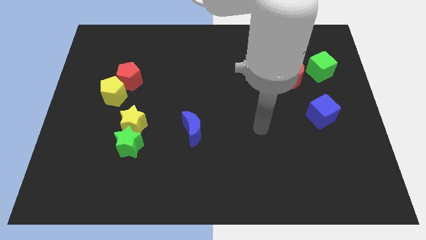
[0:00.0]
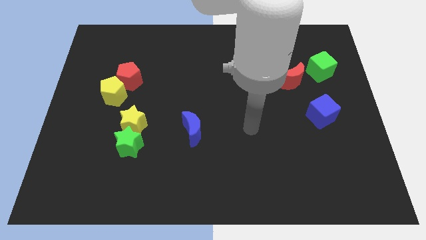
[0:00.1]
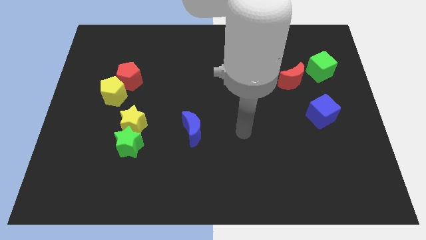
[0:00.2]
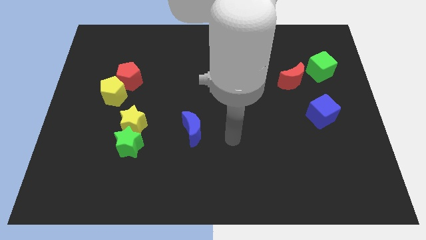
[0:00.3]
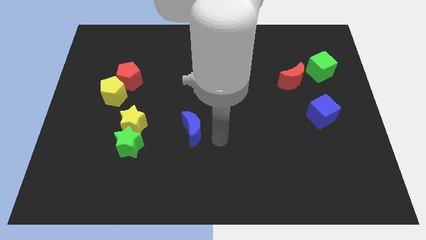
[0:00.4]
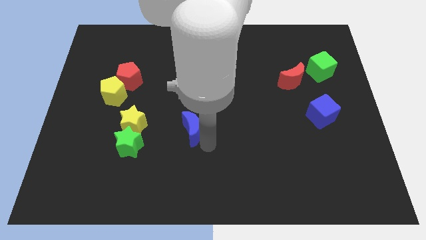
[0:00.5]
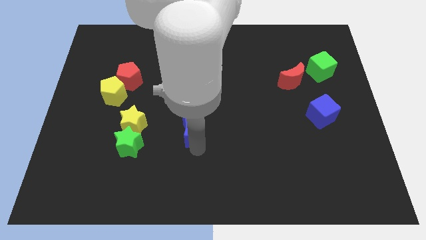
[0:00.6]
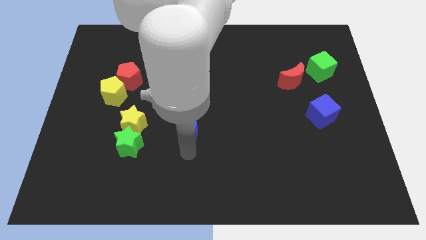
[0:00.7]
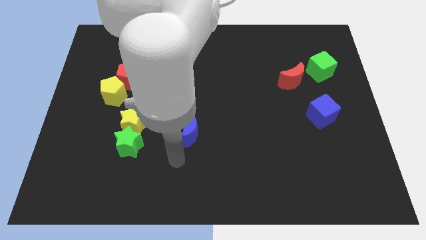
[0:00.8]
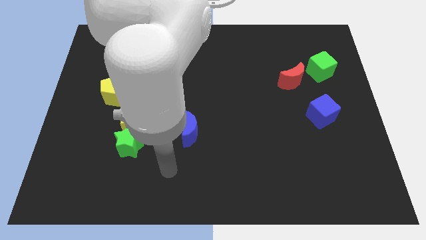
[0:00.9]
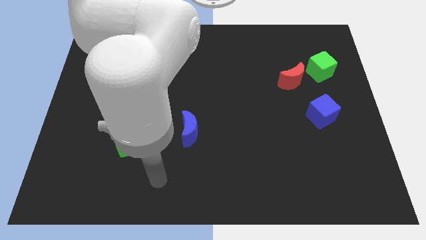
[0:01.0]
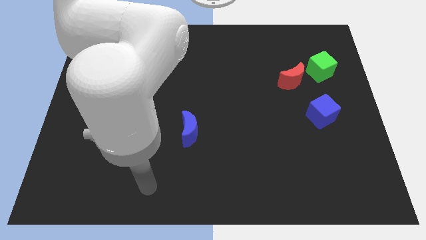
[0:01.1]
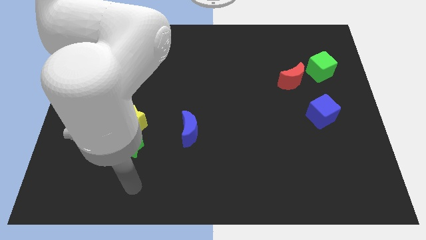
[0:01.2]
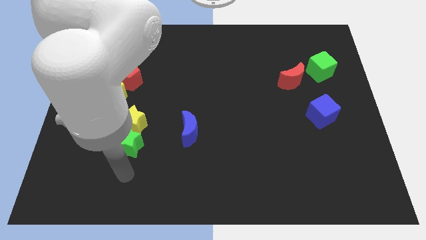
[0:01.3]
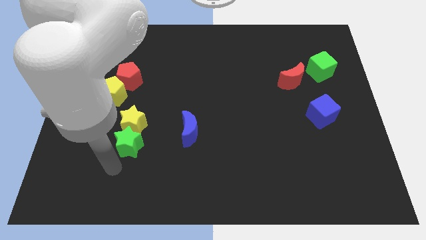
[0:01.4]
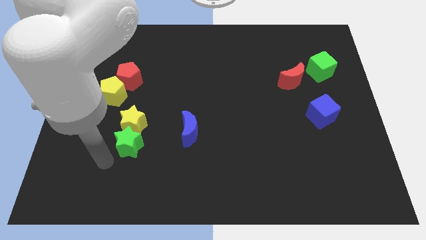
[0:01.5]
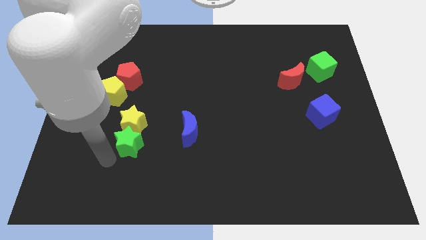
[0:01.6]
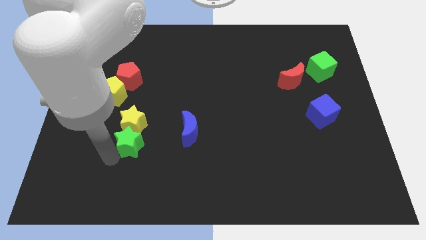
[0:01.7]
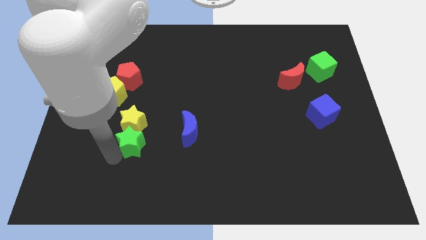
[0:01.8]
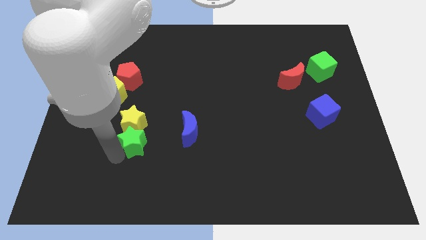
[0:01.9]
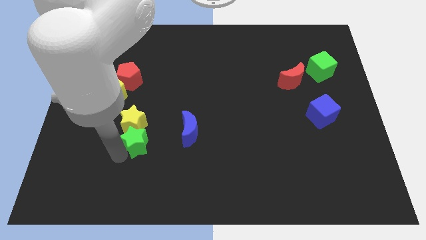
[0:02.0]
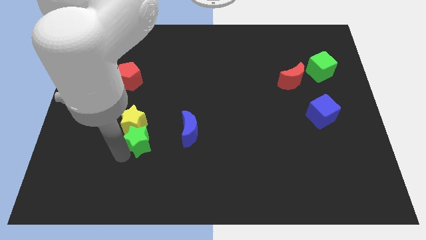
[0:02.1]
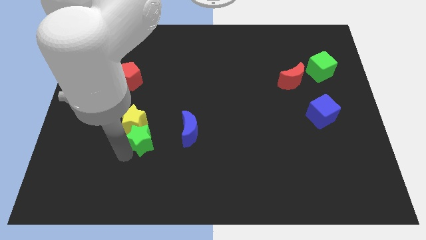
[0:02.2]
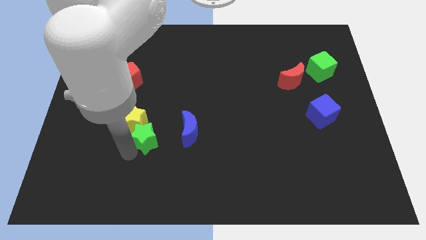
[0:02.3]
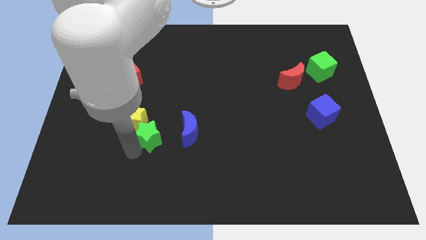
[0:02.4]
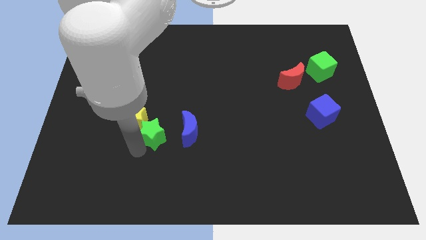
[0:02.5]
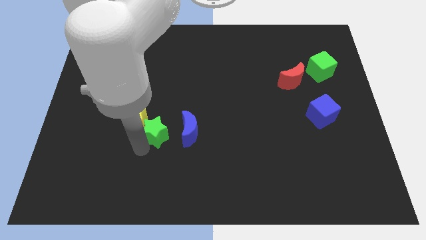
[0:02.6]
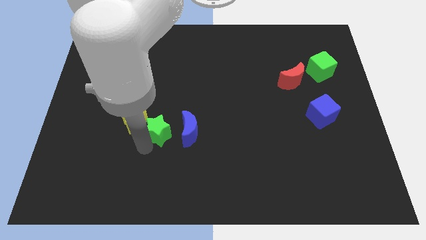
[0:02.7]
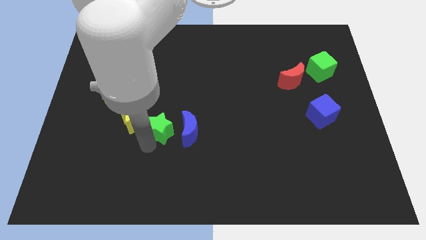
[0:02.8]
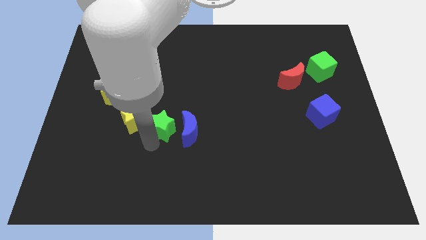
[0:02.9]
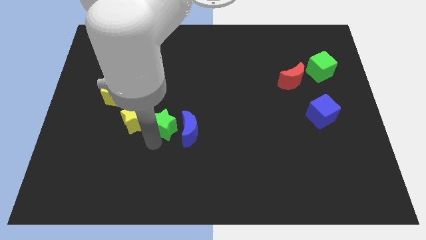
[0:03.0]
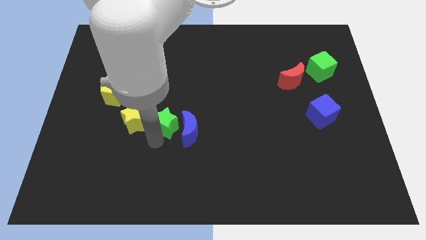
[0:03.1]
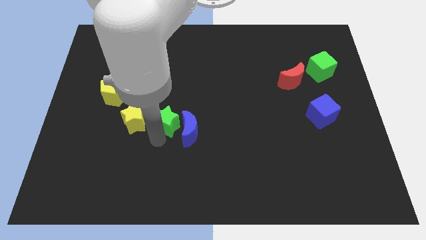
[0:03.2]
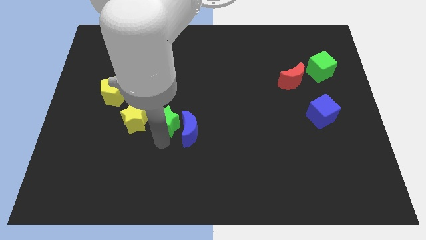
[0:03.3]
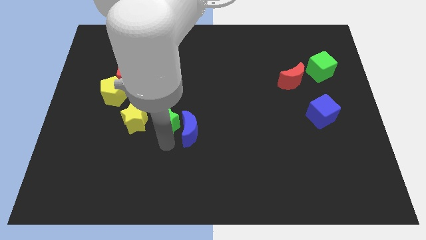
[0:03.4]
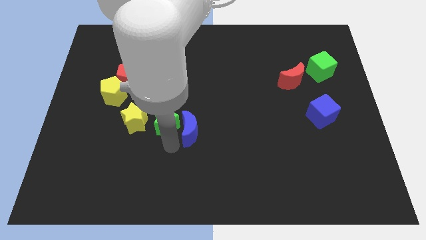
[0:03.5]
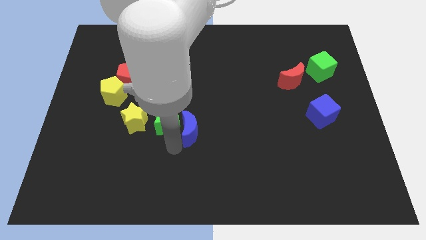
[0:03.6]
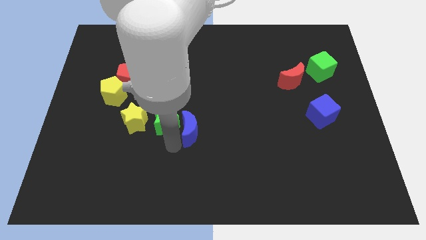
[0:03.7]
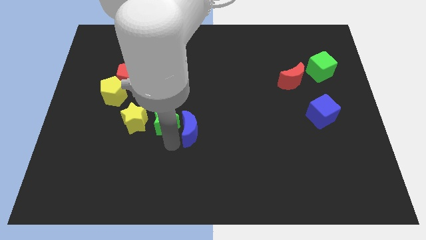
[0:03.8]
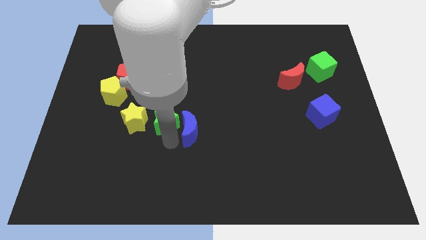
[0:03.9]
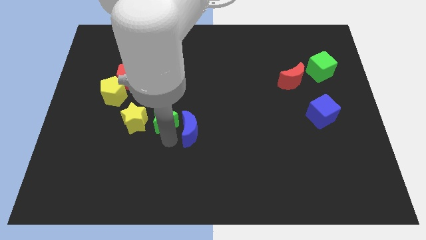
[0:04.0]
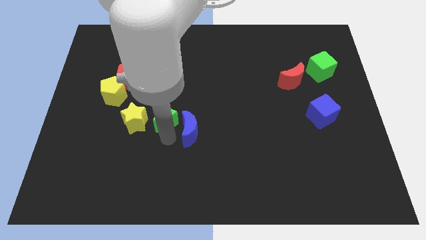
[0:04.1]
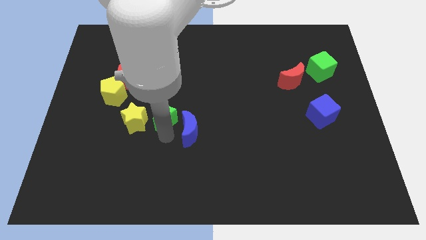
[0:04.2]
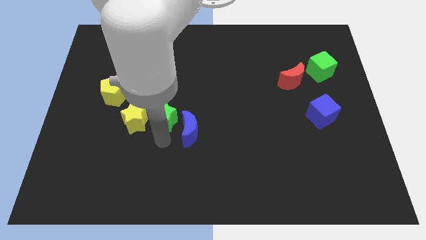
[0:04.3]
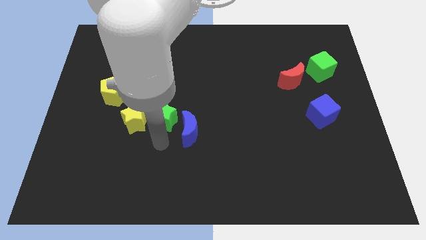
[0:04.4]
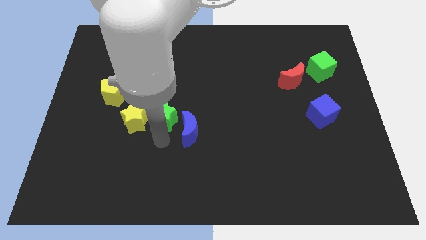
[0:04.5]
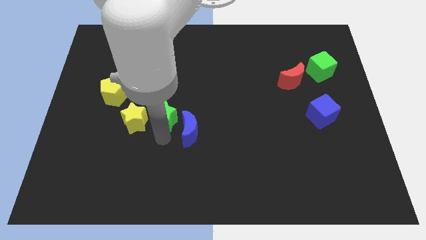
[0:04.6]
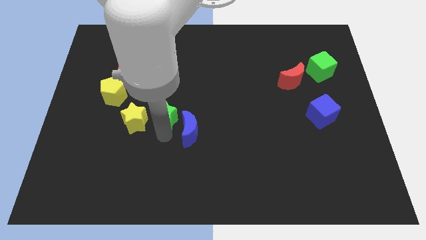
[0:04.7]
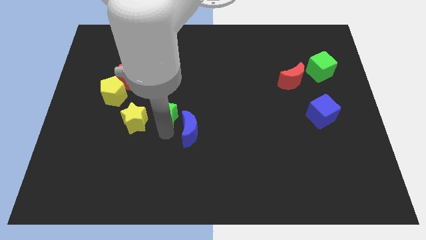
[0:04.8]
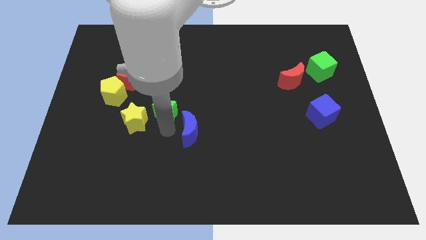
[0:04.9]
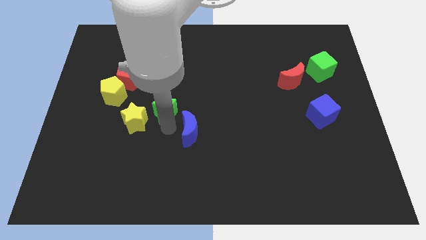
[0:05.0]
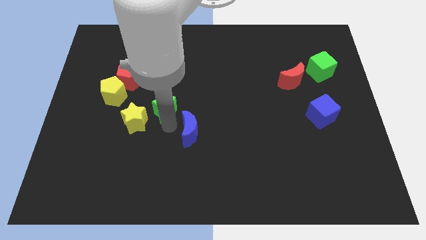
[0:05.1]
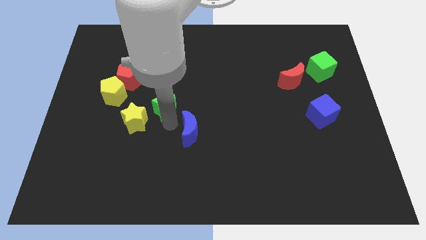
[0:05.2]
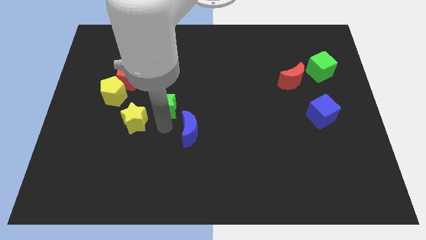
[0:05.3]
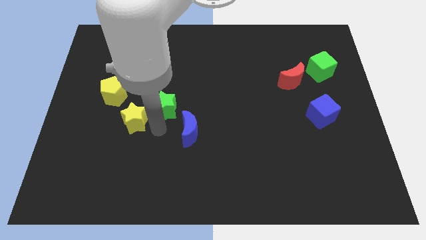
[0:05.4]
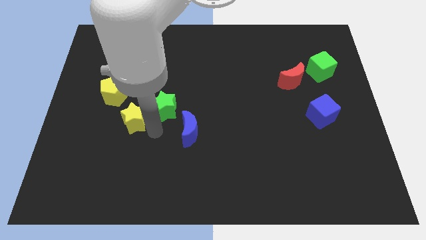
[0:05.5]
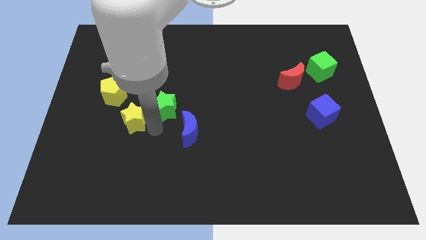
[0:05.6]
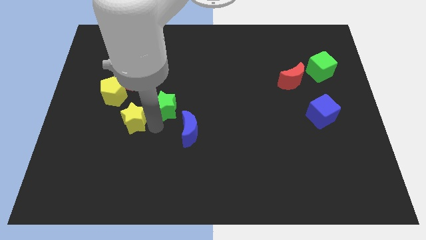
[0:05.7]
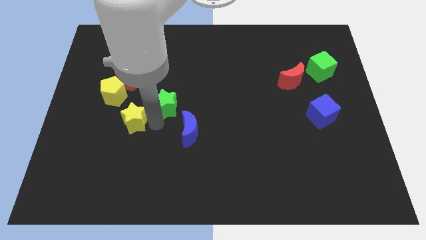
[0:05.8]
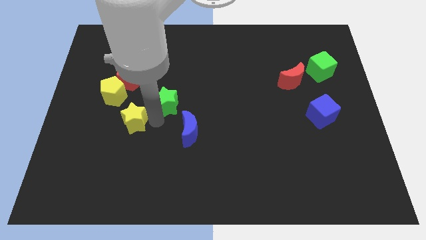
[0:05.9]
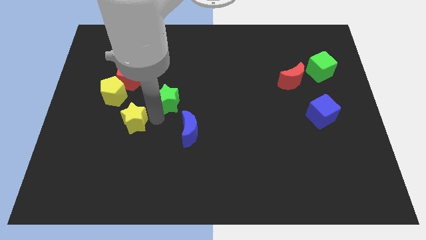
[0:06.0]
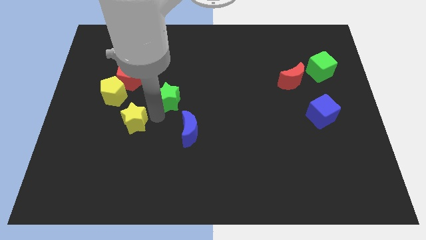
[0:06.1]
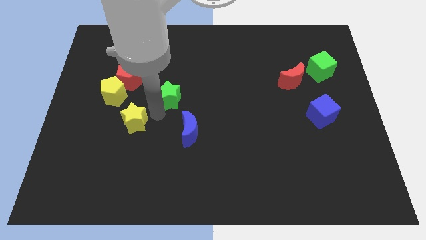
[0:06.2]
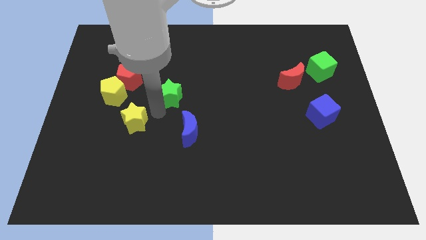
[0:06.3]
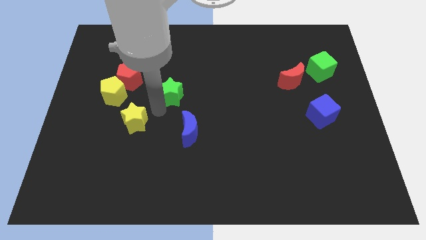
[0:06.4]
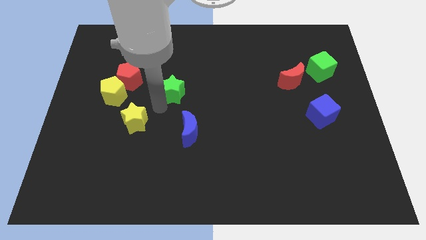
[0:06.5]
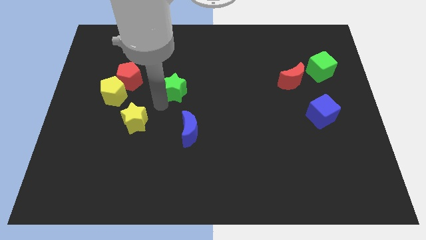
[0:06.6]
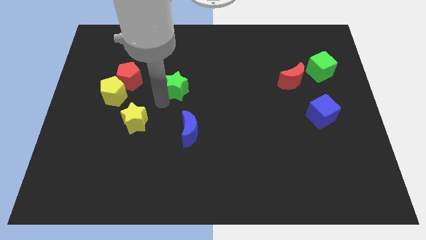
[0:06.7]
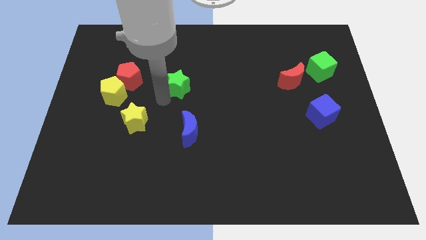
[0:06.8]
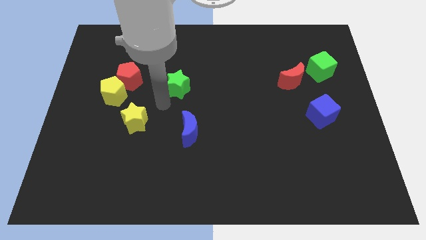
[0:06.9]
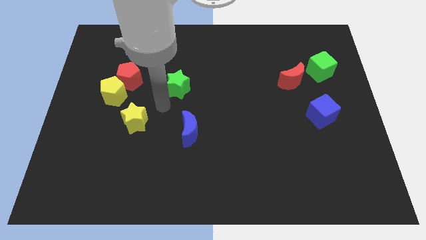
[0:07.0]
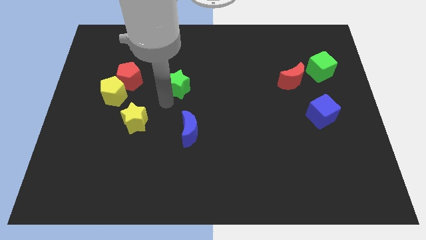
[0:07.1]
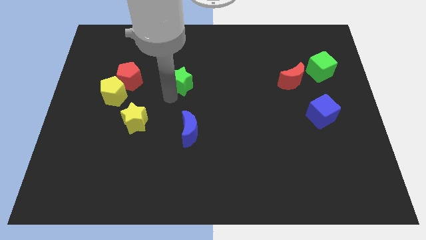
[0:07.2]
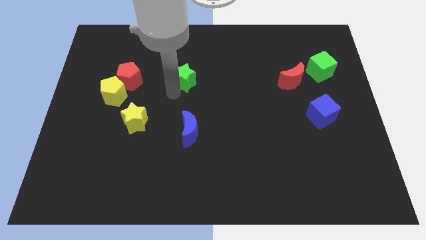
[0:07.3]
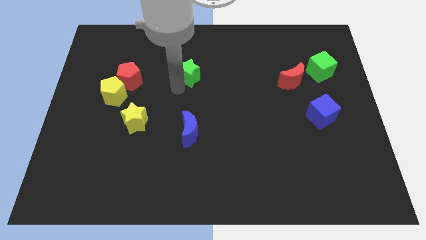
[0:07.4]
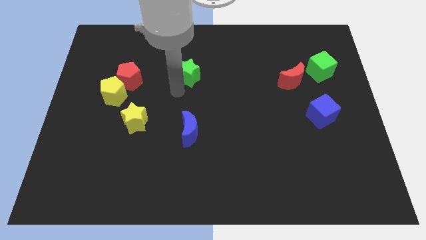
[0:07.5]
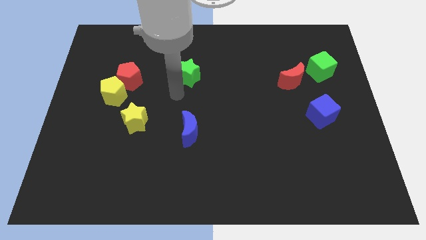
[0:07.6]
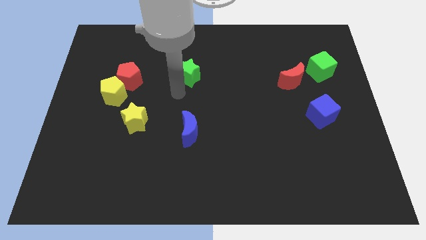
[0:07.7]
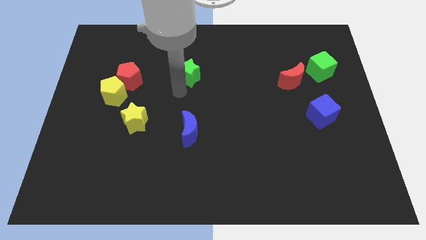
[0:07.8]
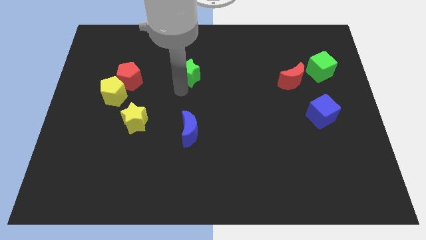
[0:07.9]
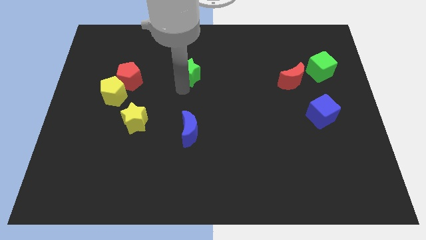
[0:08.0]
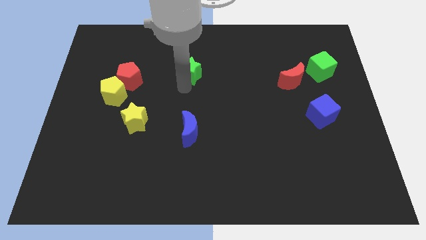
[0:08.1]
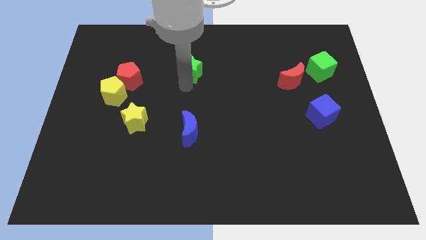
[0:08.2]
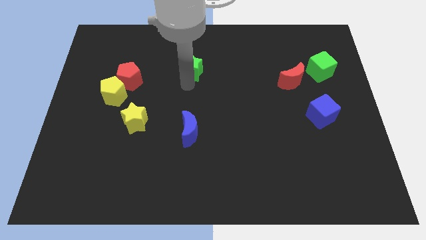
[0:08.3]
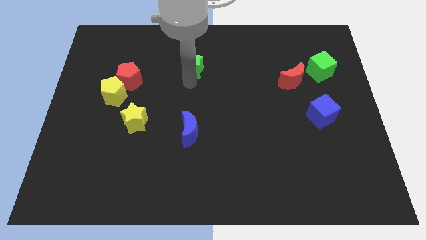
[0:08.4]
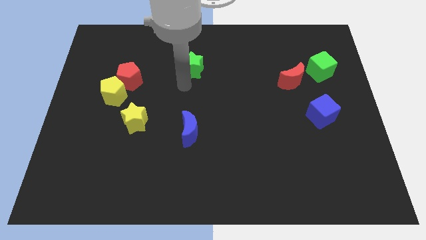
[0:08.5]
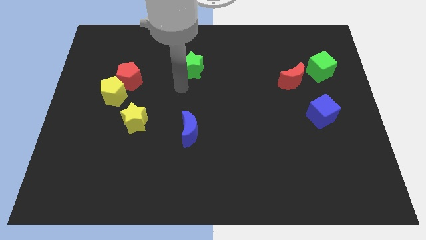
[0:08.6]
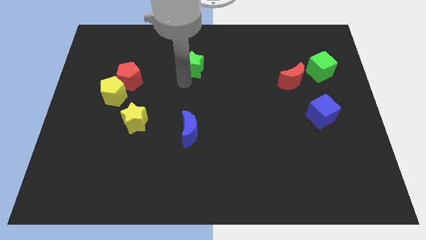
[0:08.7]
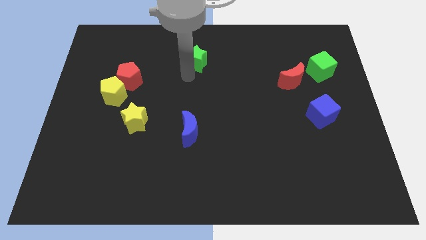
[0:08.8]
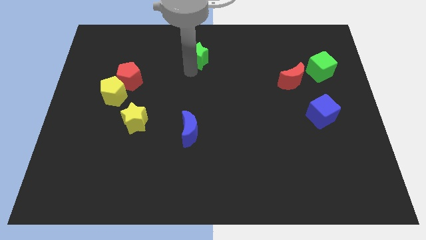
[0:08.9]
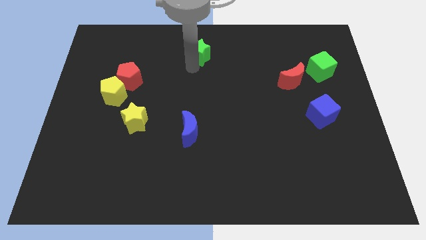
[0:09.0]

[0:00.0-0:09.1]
slide the green star to the top side
